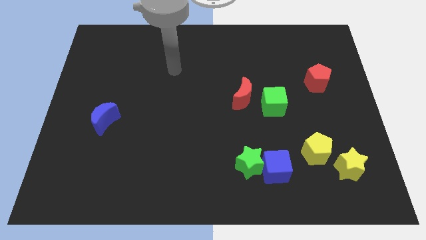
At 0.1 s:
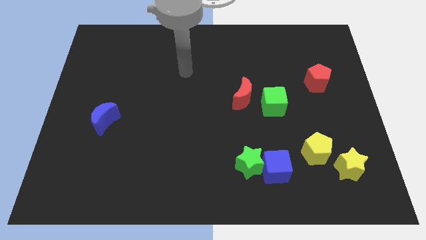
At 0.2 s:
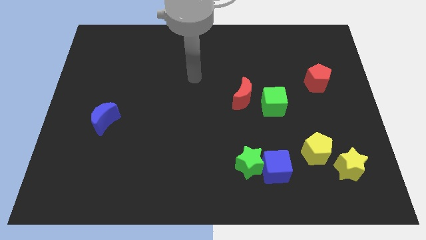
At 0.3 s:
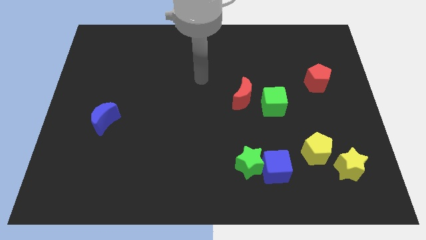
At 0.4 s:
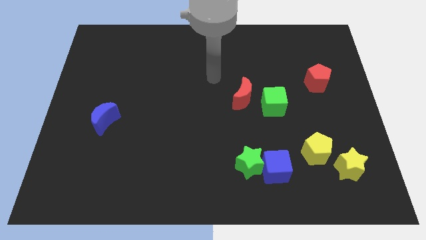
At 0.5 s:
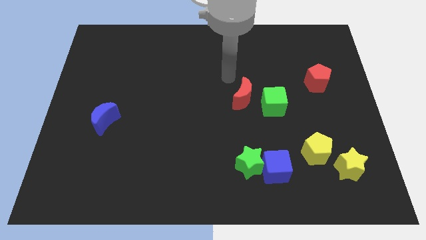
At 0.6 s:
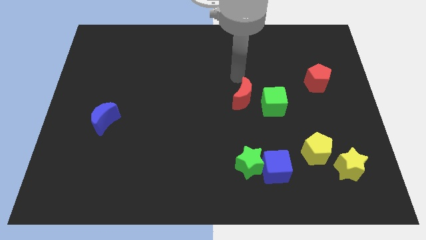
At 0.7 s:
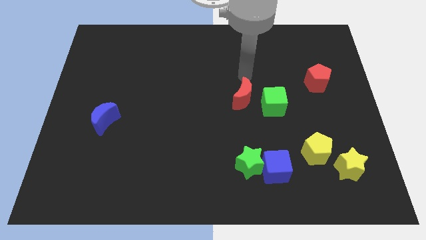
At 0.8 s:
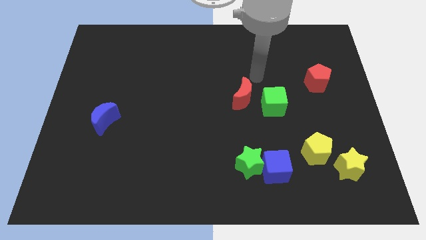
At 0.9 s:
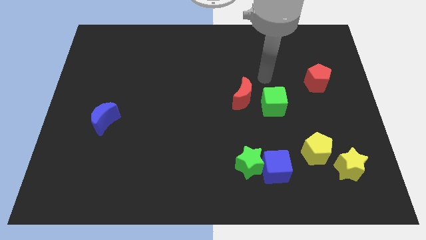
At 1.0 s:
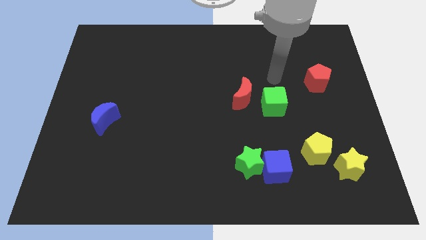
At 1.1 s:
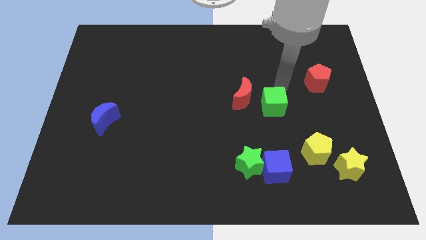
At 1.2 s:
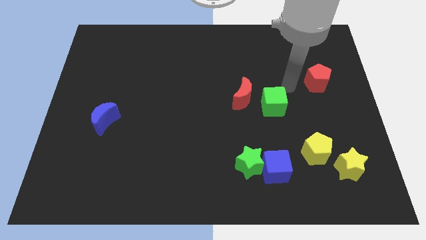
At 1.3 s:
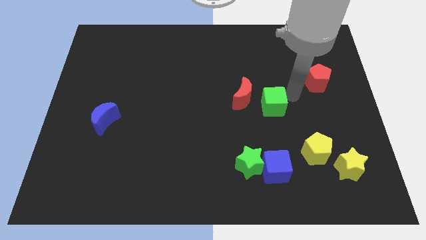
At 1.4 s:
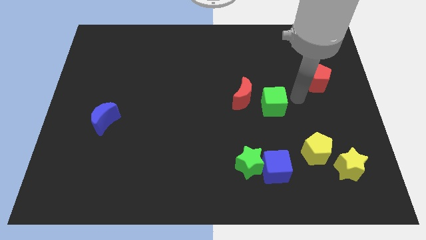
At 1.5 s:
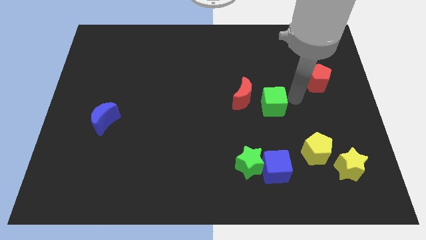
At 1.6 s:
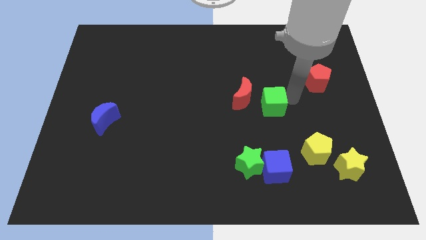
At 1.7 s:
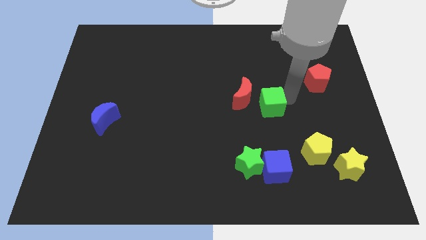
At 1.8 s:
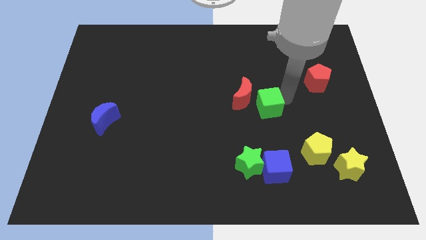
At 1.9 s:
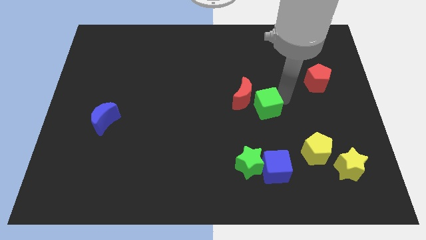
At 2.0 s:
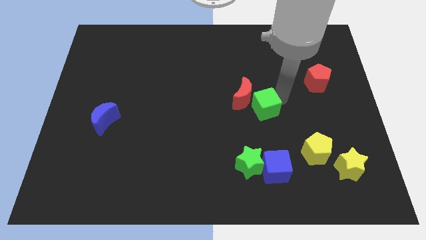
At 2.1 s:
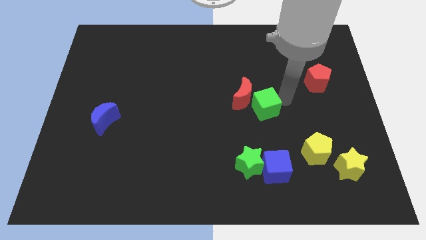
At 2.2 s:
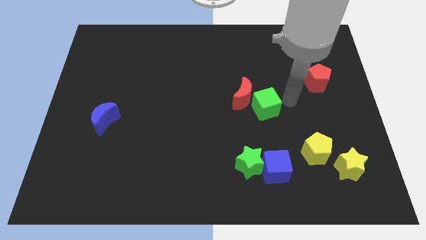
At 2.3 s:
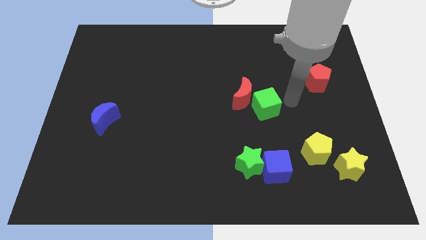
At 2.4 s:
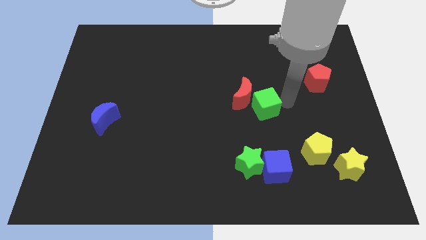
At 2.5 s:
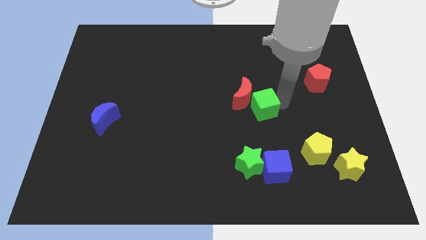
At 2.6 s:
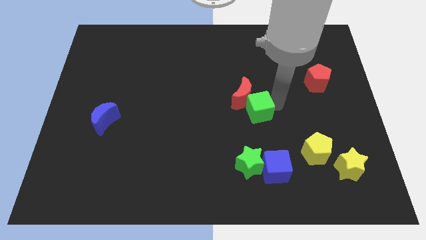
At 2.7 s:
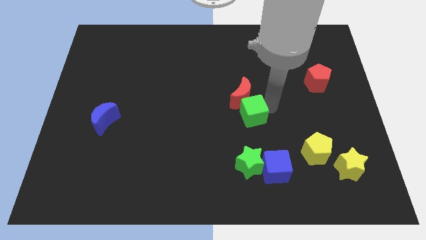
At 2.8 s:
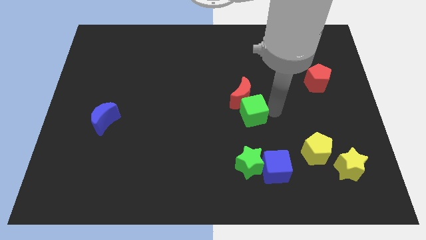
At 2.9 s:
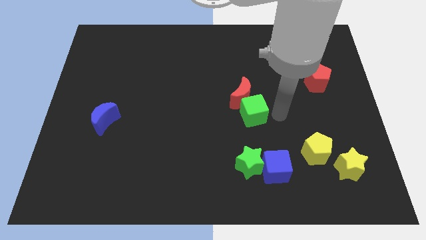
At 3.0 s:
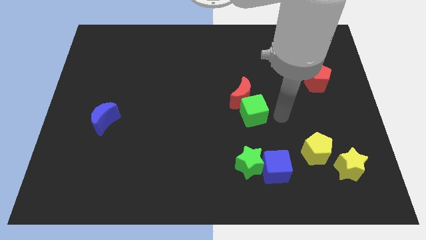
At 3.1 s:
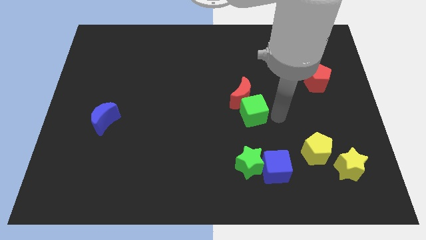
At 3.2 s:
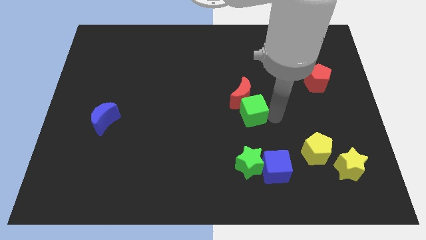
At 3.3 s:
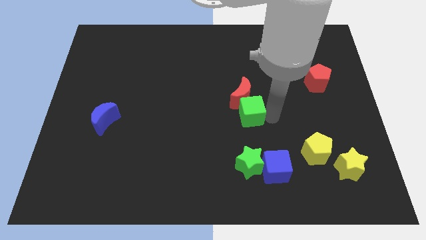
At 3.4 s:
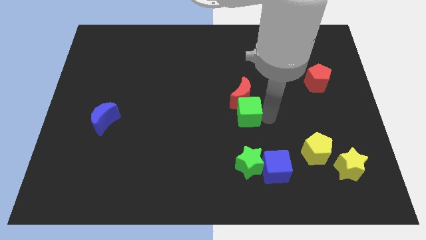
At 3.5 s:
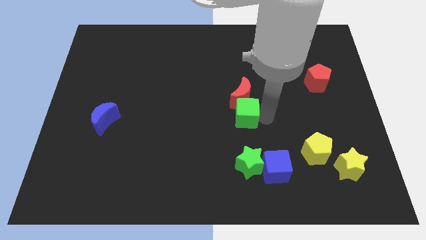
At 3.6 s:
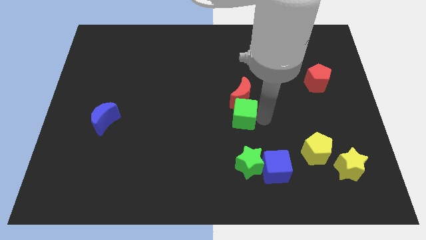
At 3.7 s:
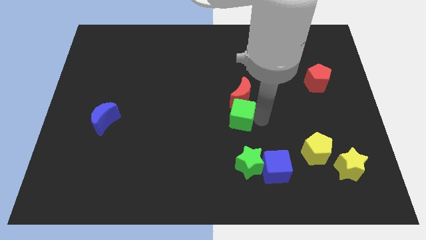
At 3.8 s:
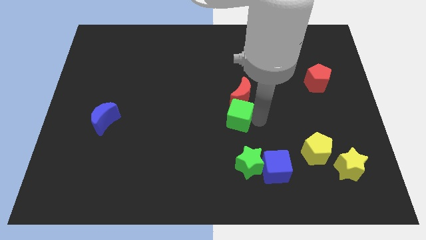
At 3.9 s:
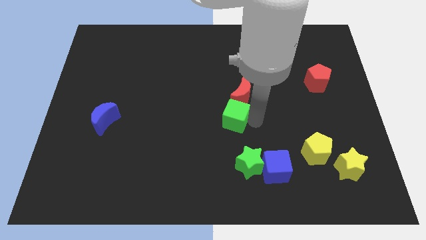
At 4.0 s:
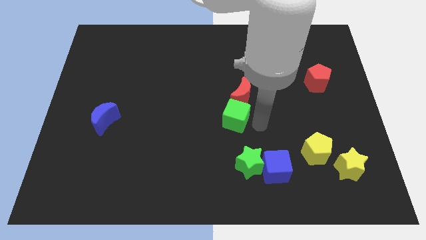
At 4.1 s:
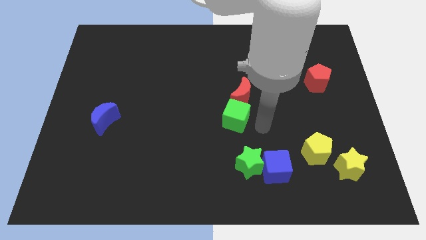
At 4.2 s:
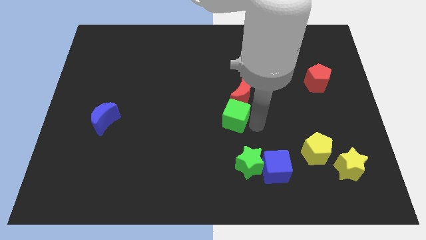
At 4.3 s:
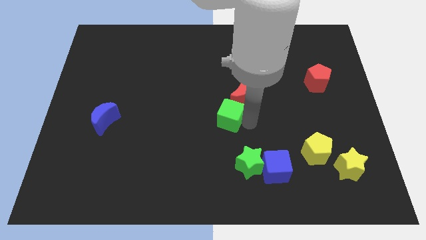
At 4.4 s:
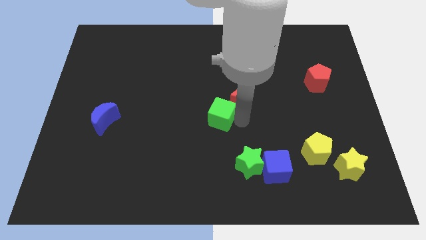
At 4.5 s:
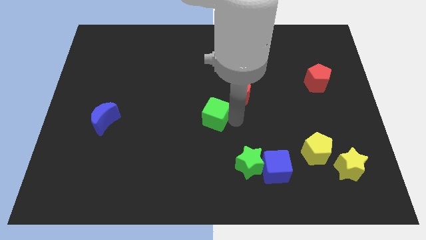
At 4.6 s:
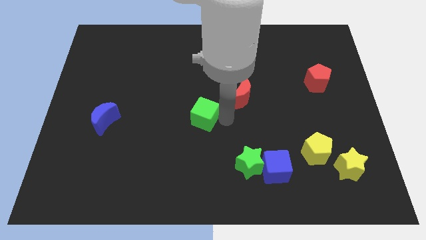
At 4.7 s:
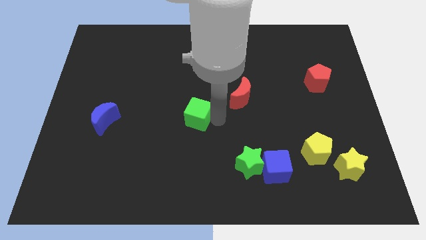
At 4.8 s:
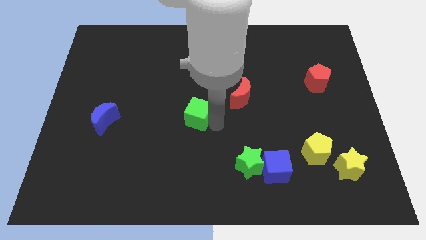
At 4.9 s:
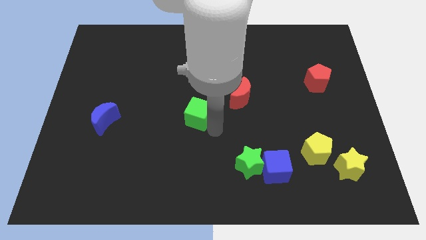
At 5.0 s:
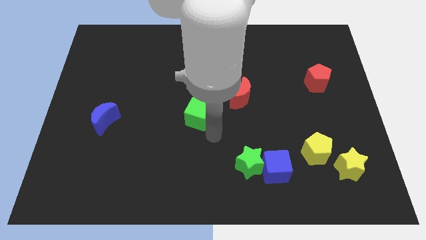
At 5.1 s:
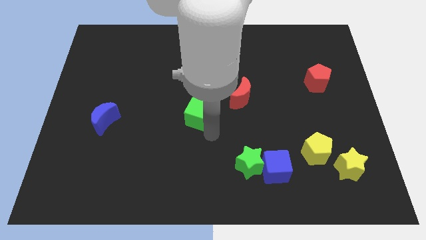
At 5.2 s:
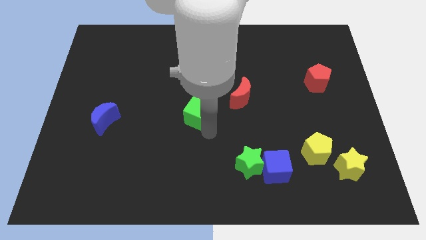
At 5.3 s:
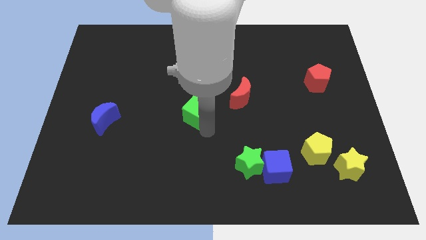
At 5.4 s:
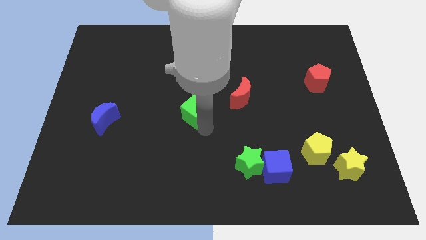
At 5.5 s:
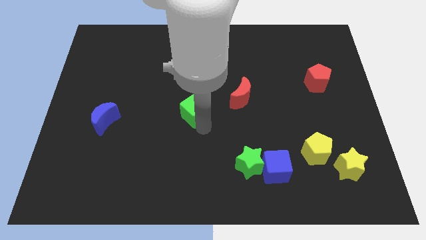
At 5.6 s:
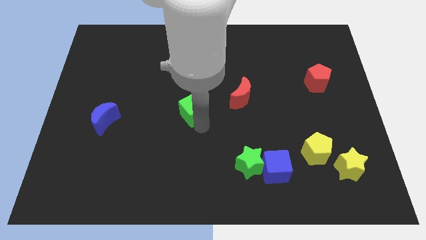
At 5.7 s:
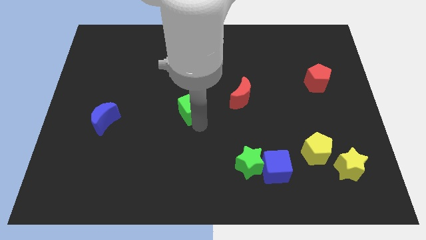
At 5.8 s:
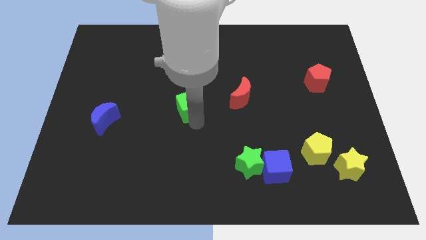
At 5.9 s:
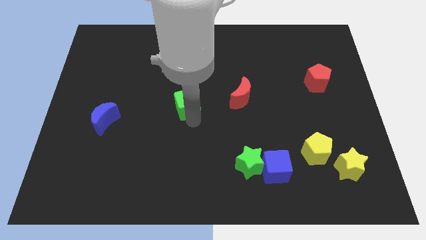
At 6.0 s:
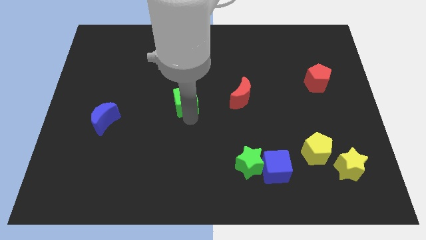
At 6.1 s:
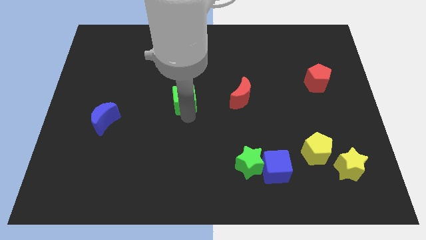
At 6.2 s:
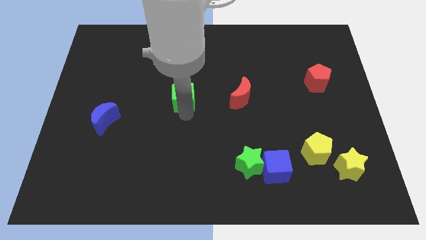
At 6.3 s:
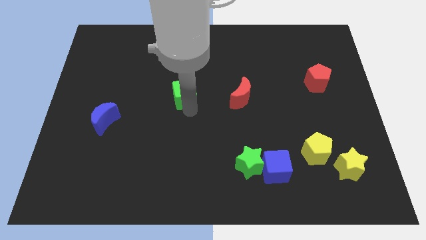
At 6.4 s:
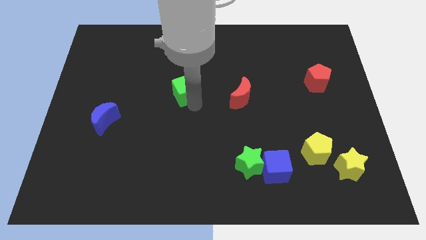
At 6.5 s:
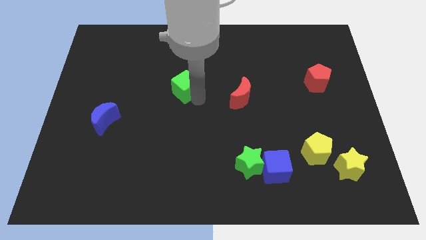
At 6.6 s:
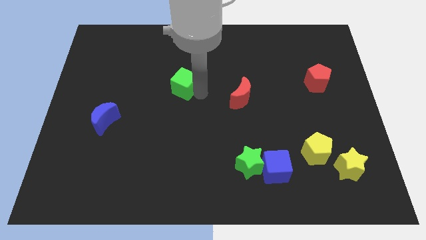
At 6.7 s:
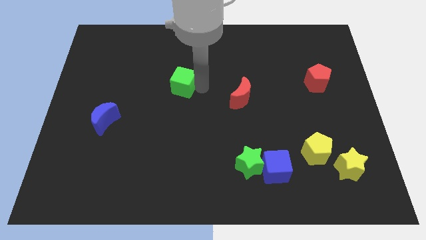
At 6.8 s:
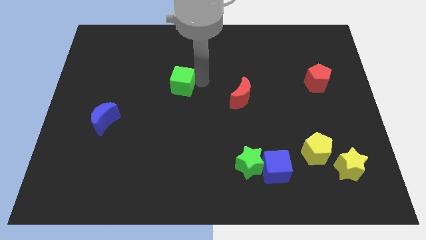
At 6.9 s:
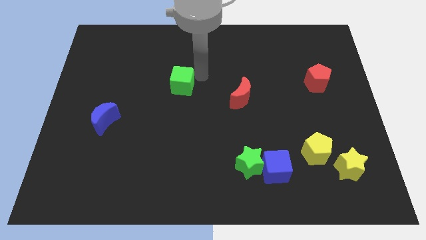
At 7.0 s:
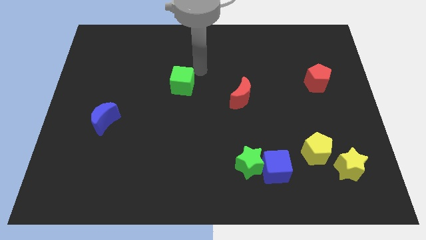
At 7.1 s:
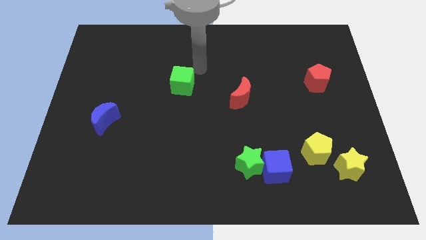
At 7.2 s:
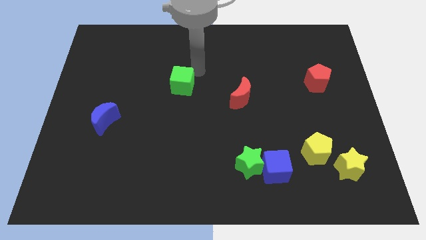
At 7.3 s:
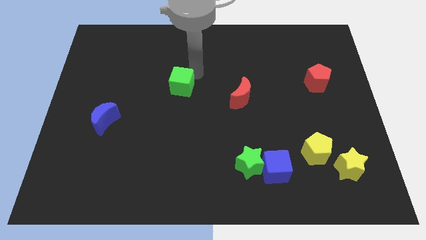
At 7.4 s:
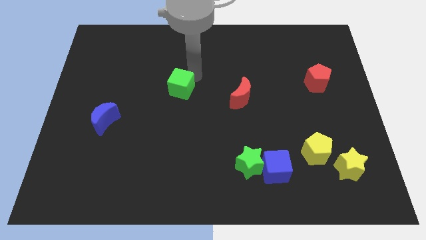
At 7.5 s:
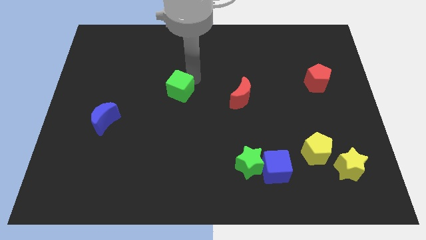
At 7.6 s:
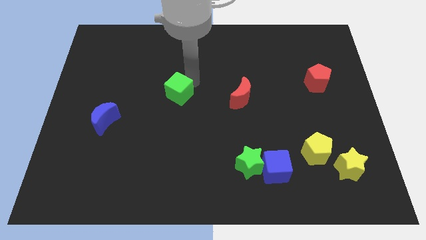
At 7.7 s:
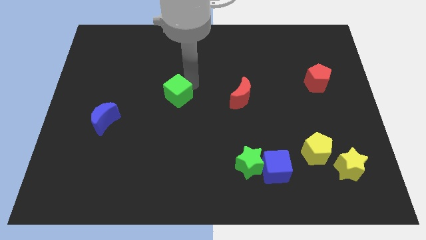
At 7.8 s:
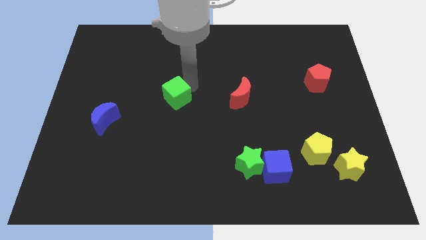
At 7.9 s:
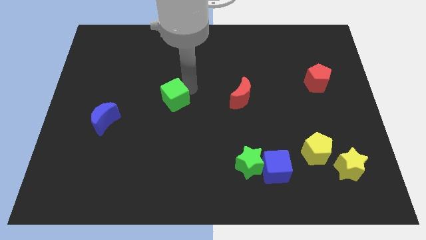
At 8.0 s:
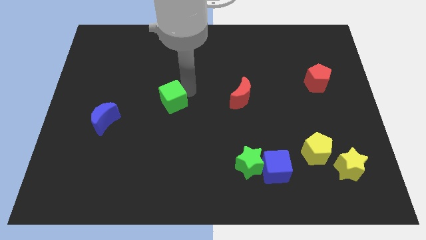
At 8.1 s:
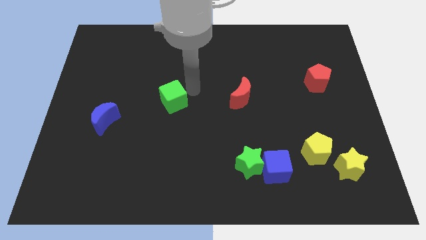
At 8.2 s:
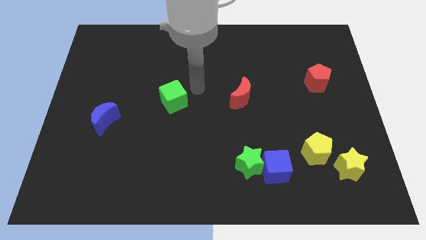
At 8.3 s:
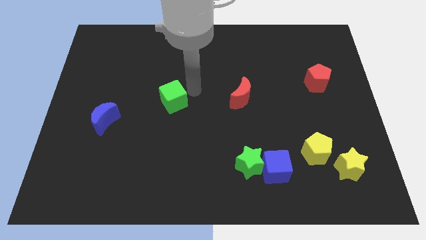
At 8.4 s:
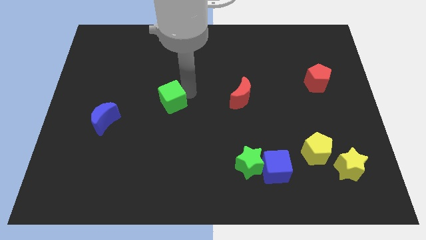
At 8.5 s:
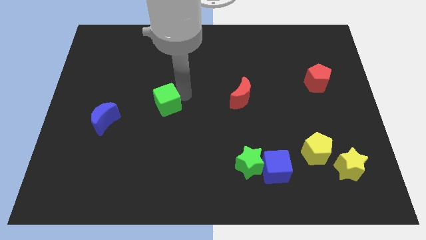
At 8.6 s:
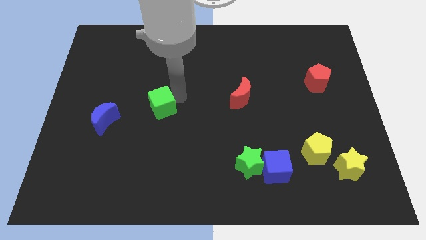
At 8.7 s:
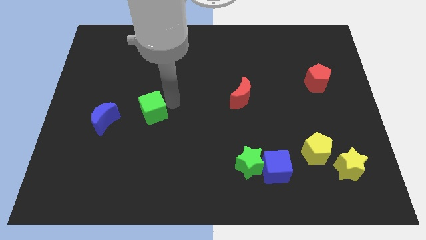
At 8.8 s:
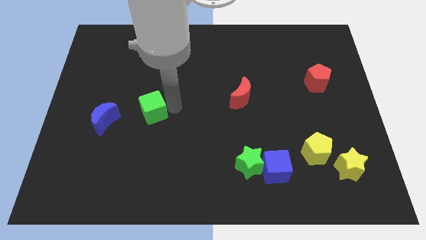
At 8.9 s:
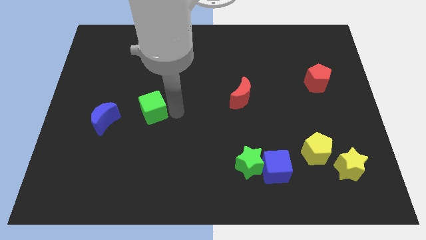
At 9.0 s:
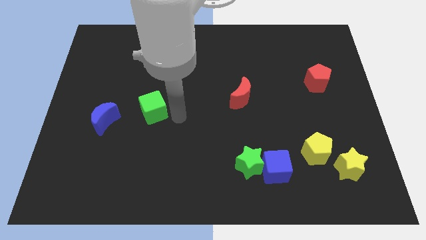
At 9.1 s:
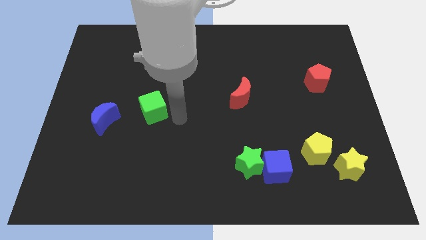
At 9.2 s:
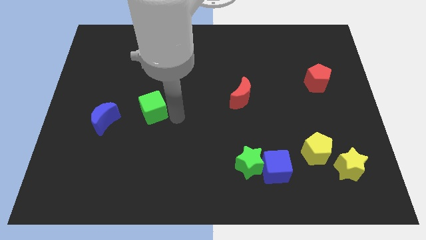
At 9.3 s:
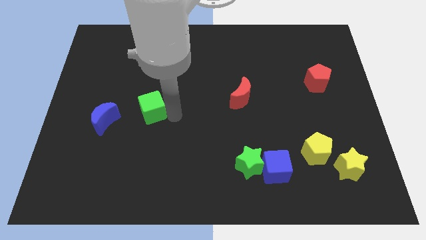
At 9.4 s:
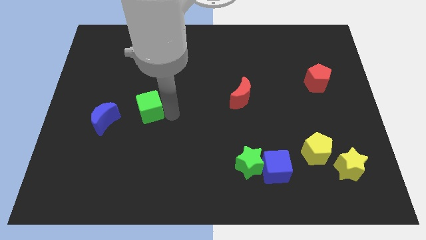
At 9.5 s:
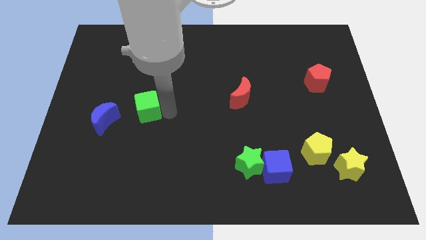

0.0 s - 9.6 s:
put the green cube to the top right of the blue moon
